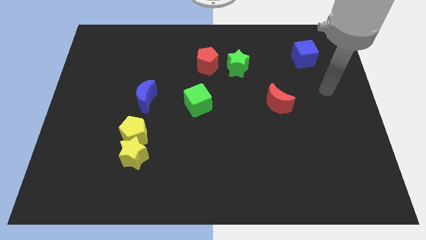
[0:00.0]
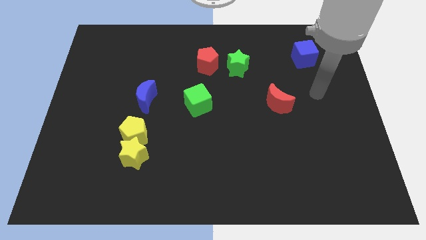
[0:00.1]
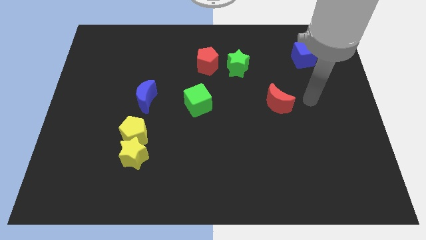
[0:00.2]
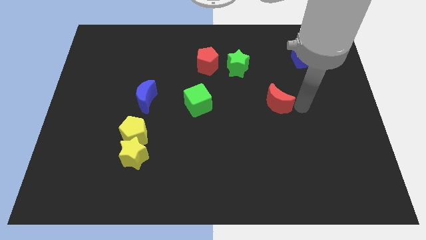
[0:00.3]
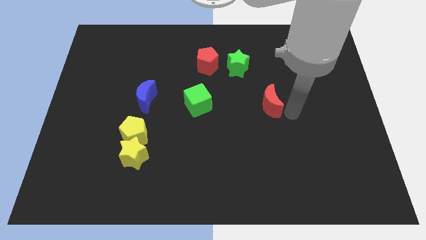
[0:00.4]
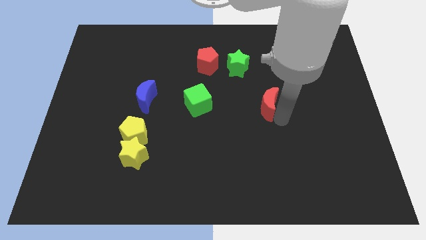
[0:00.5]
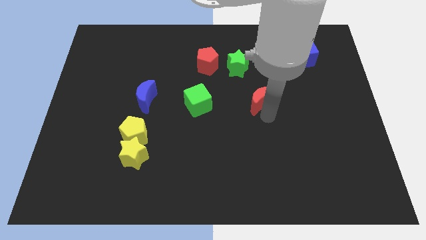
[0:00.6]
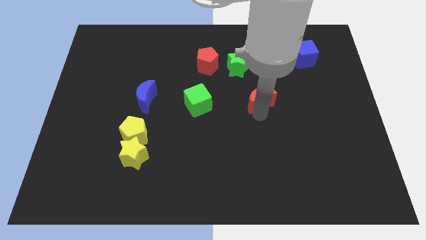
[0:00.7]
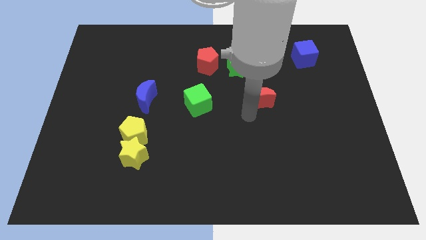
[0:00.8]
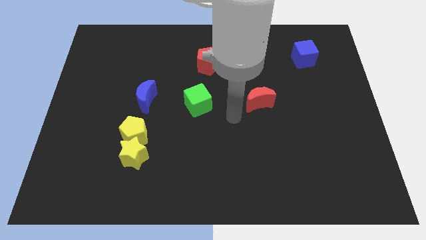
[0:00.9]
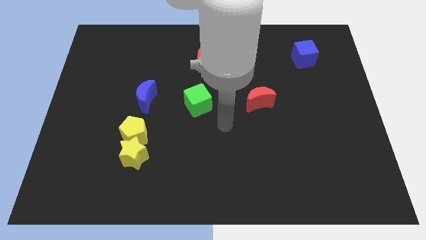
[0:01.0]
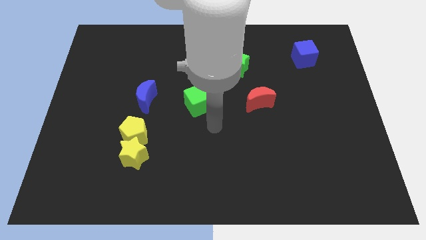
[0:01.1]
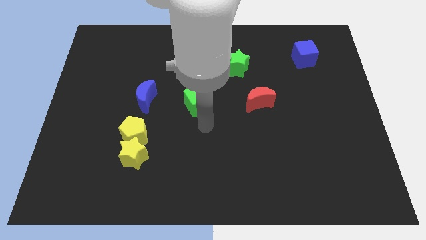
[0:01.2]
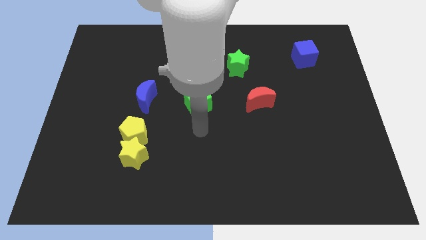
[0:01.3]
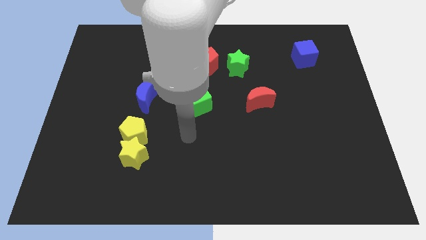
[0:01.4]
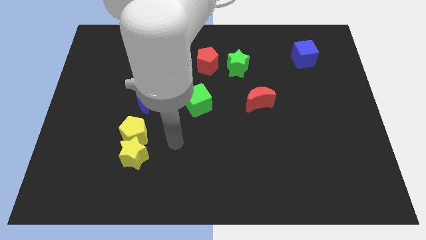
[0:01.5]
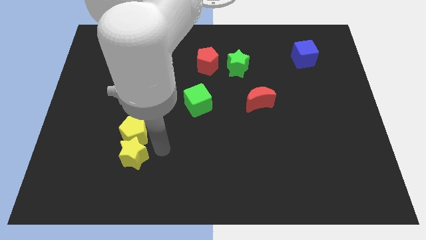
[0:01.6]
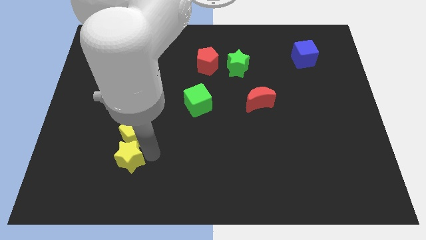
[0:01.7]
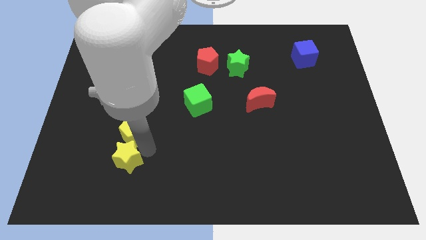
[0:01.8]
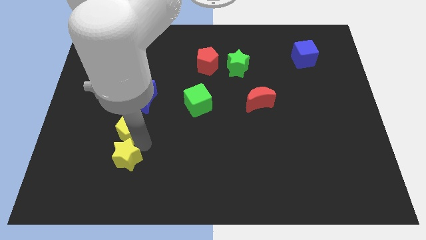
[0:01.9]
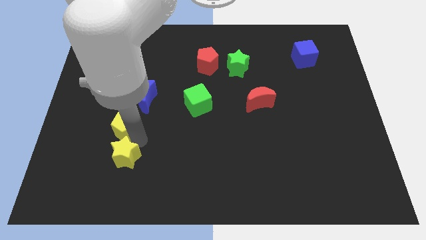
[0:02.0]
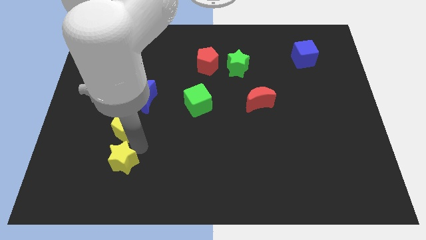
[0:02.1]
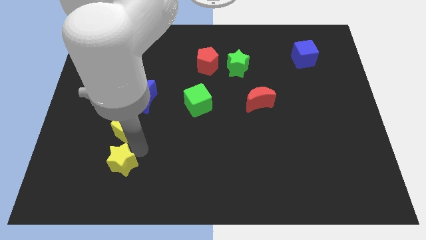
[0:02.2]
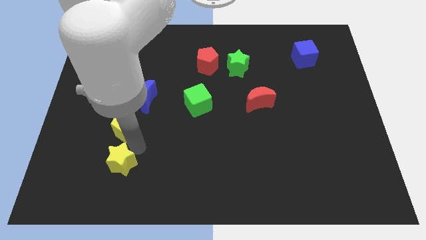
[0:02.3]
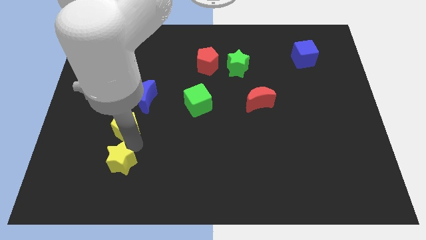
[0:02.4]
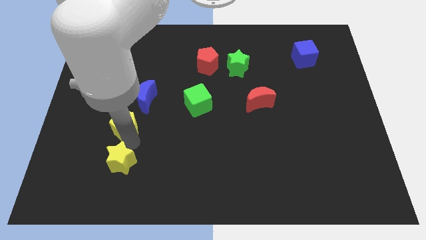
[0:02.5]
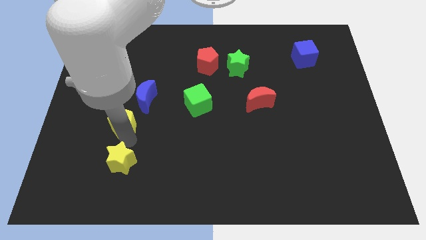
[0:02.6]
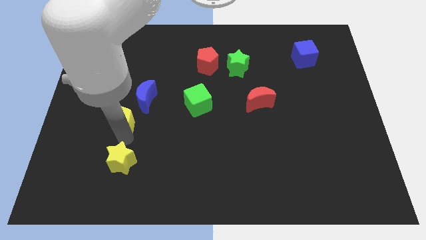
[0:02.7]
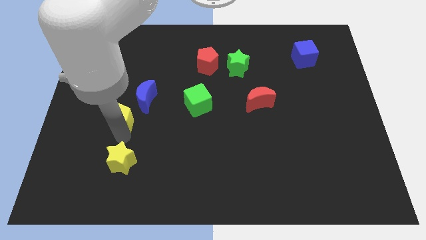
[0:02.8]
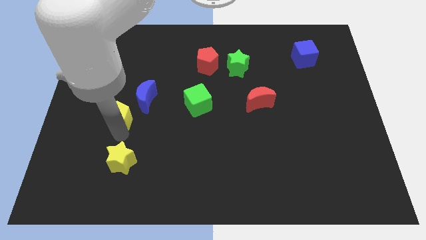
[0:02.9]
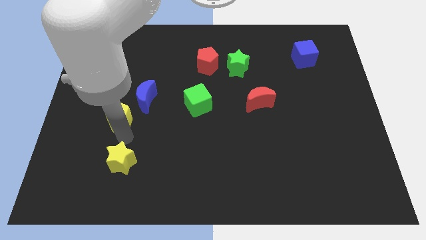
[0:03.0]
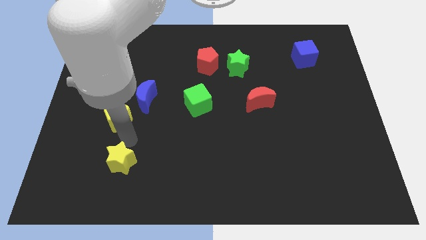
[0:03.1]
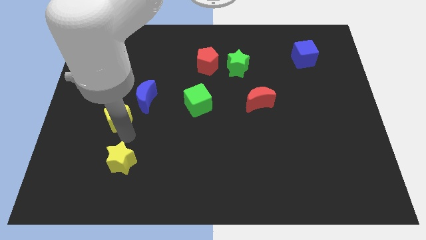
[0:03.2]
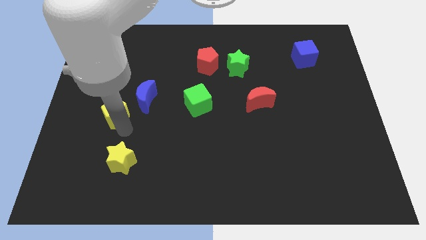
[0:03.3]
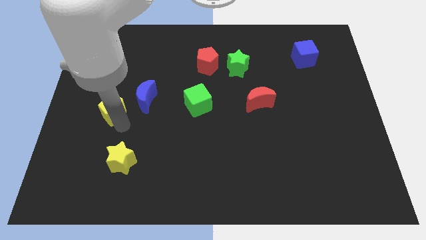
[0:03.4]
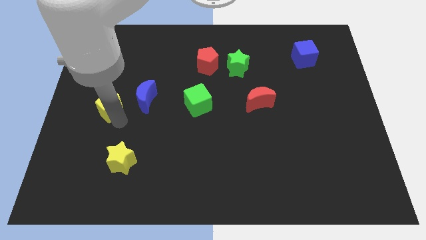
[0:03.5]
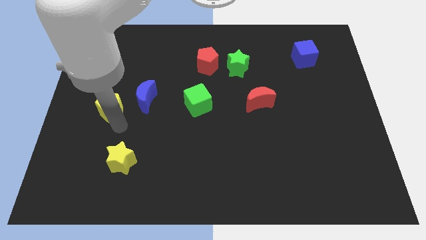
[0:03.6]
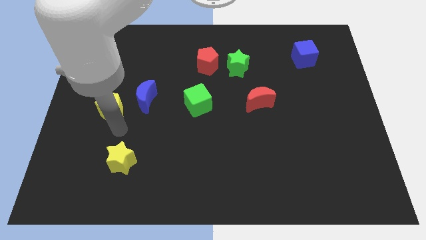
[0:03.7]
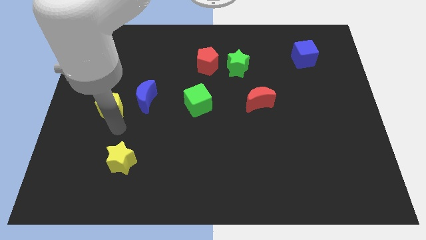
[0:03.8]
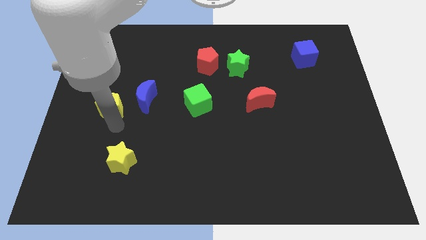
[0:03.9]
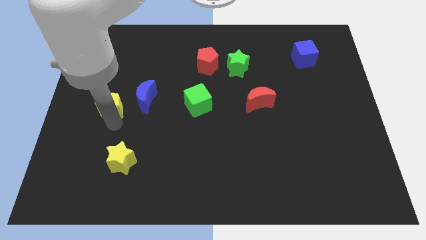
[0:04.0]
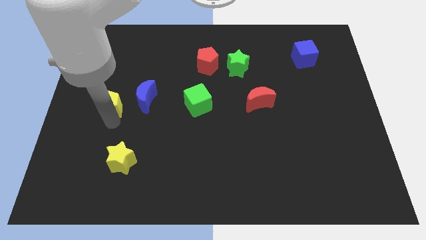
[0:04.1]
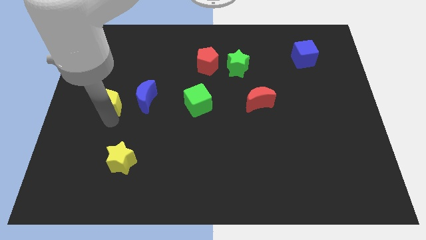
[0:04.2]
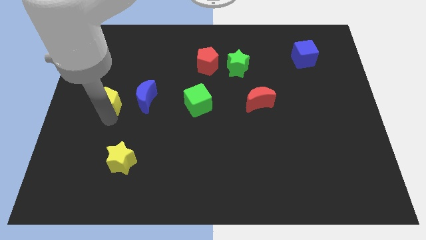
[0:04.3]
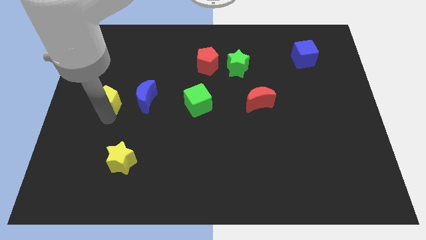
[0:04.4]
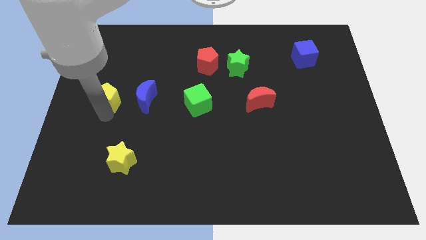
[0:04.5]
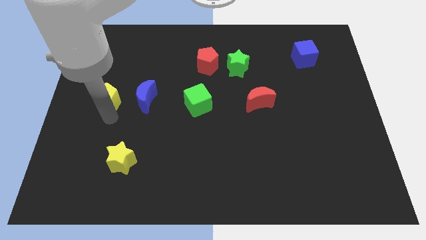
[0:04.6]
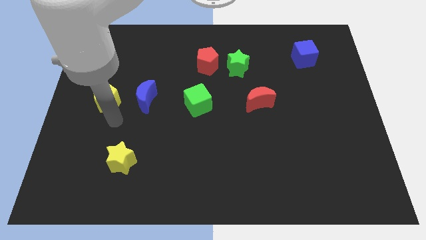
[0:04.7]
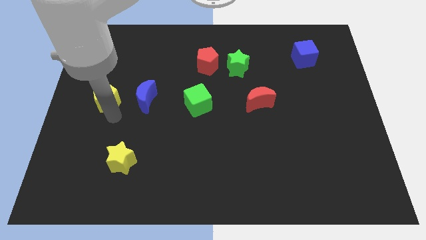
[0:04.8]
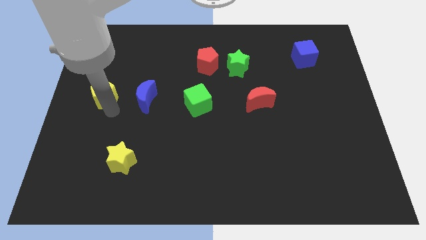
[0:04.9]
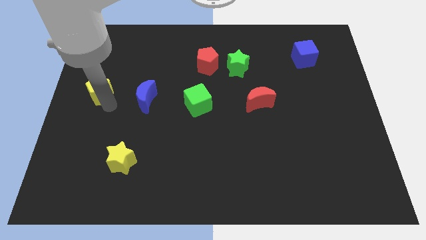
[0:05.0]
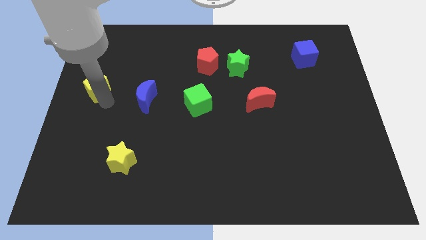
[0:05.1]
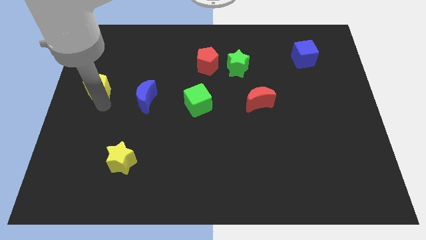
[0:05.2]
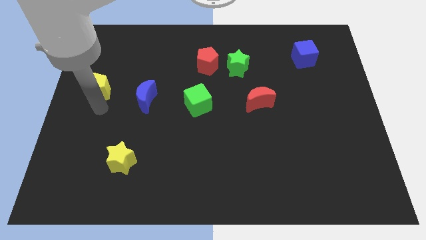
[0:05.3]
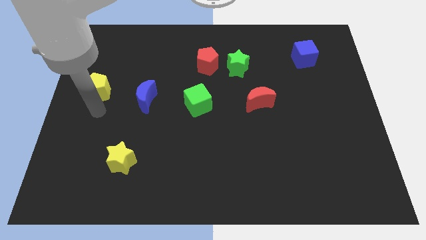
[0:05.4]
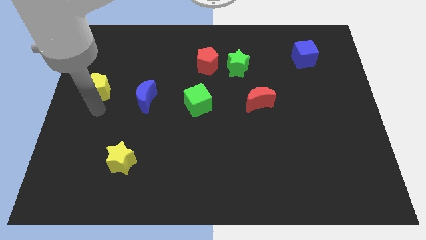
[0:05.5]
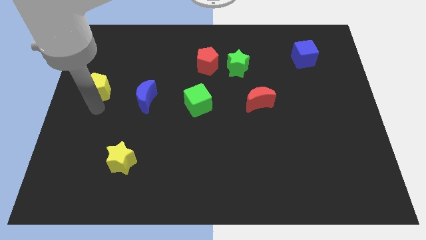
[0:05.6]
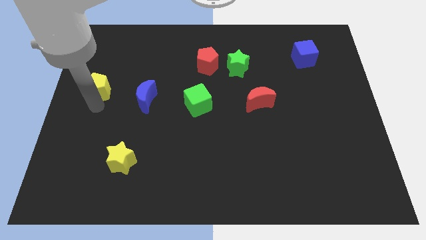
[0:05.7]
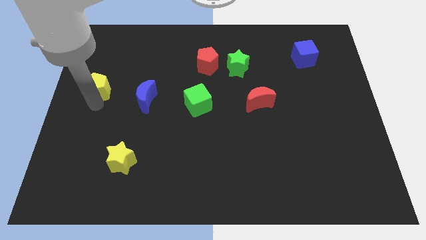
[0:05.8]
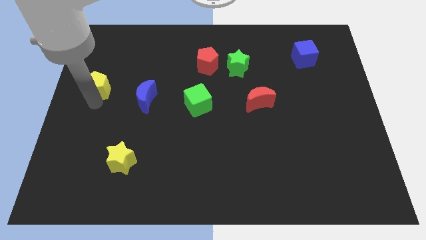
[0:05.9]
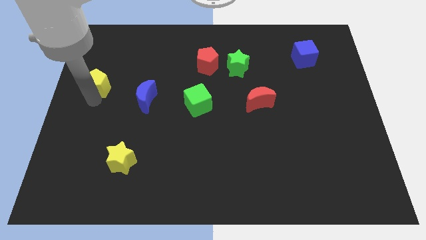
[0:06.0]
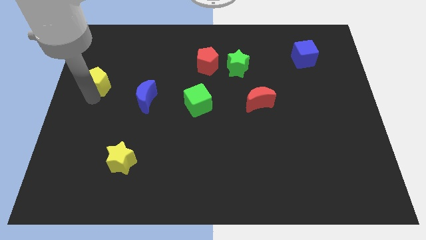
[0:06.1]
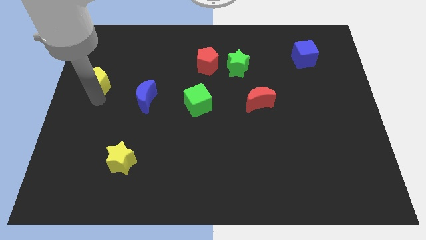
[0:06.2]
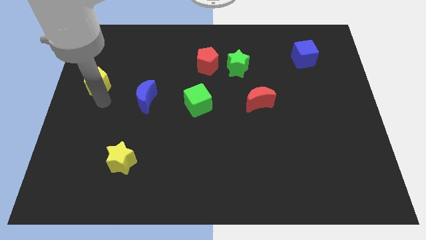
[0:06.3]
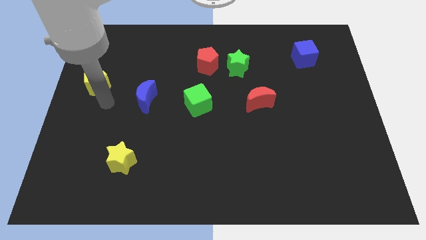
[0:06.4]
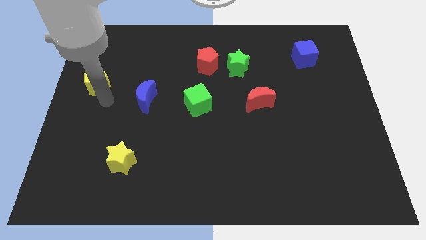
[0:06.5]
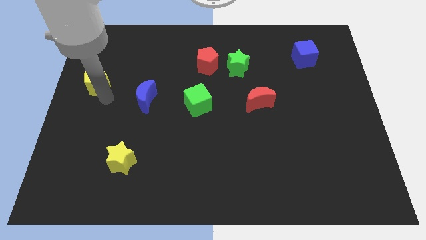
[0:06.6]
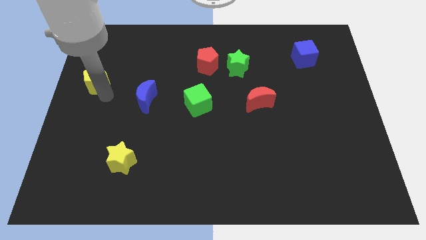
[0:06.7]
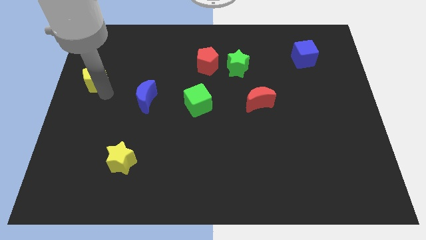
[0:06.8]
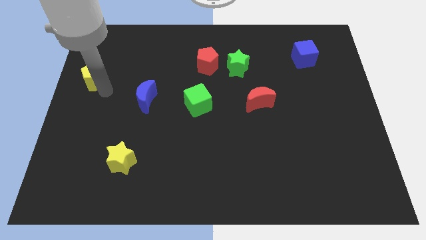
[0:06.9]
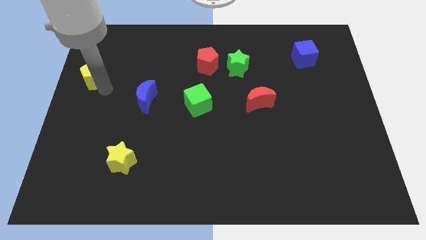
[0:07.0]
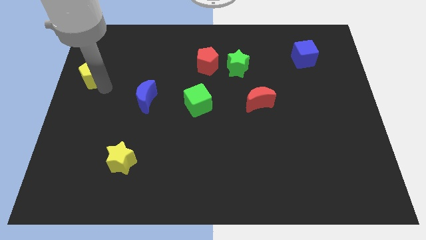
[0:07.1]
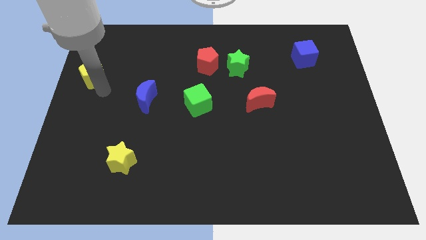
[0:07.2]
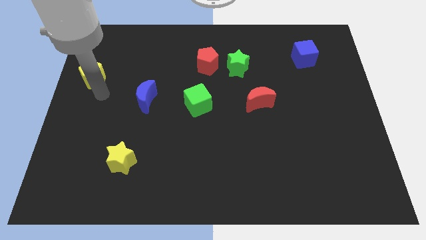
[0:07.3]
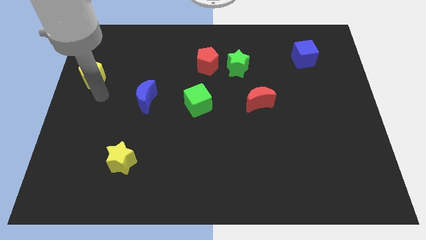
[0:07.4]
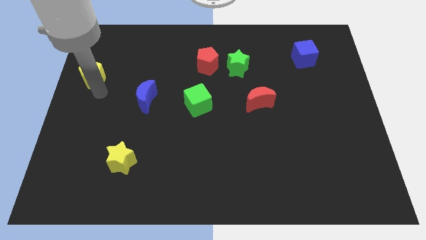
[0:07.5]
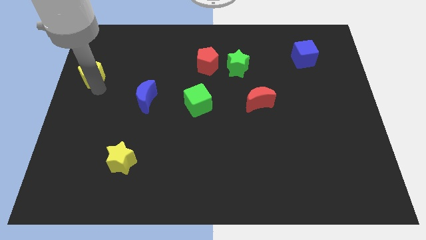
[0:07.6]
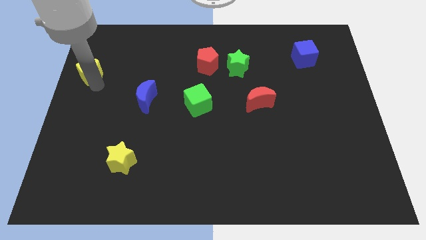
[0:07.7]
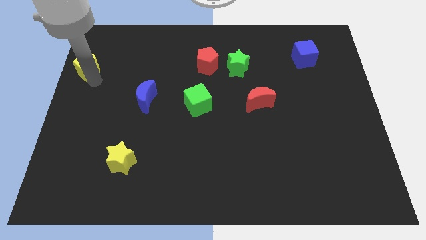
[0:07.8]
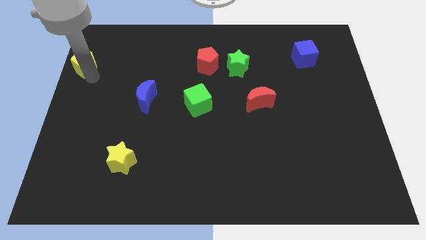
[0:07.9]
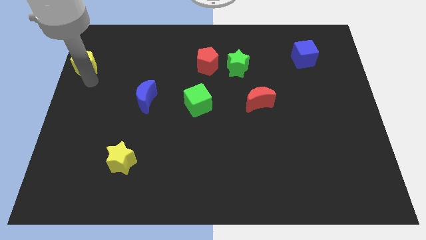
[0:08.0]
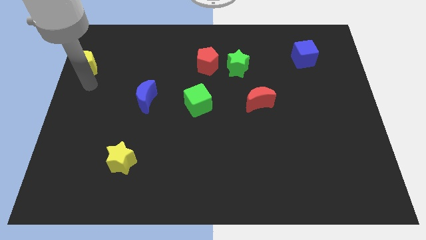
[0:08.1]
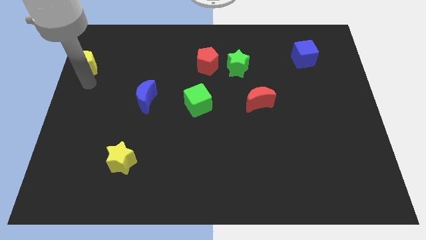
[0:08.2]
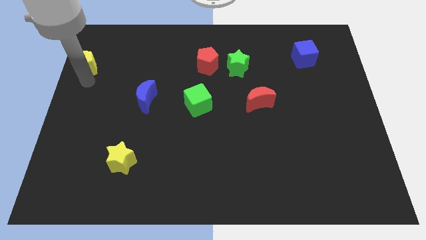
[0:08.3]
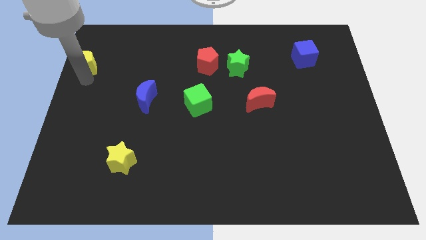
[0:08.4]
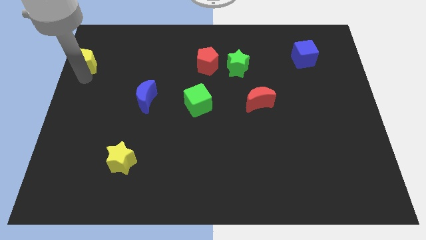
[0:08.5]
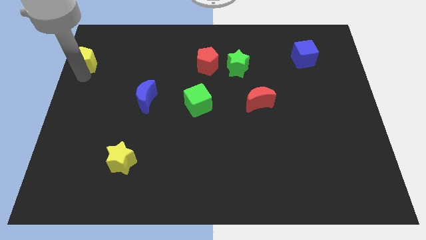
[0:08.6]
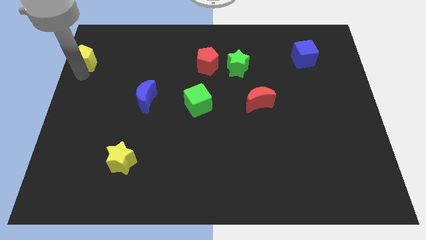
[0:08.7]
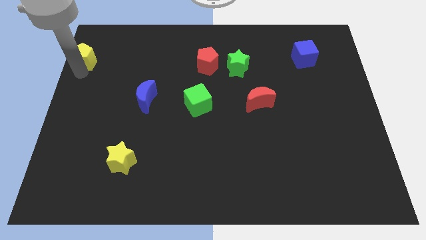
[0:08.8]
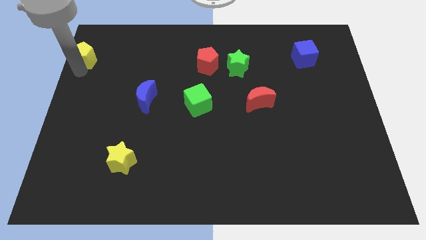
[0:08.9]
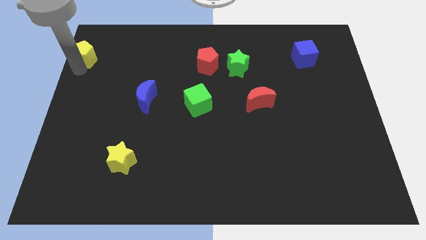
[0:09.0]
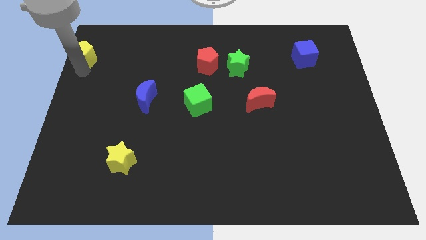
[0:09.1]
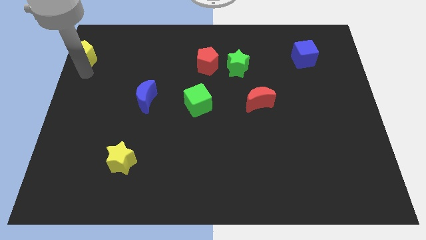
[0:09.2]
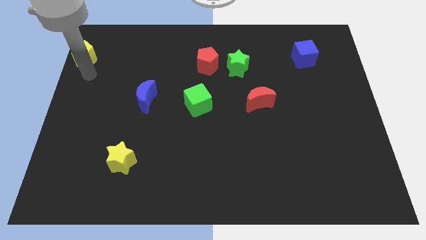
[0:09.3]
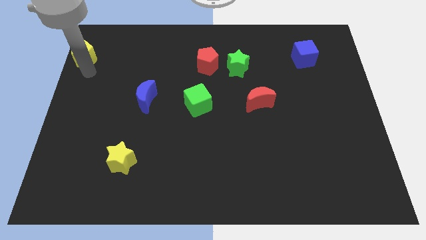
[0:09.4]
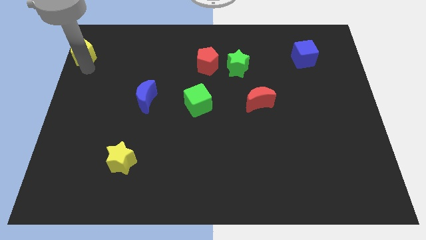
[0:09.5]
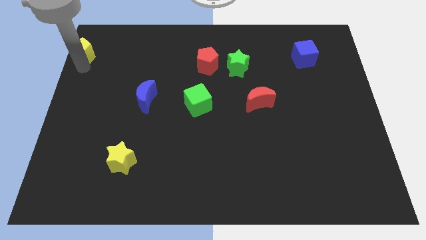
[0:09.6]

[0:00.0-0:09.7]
push the yellow pentagon to the top left corner
